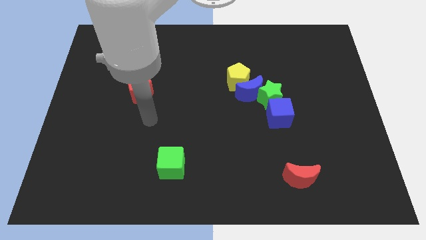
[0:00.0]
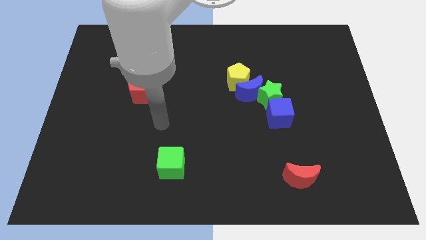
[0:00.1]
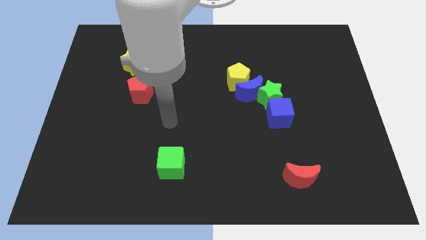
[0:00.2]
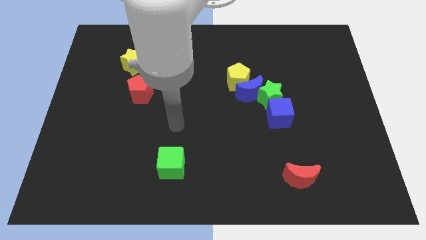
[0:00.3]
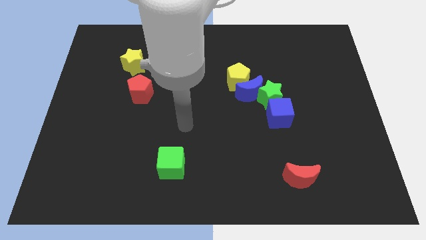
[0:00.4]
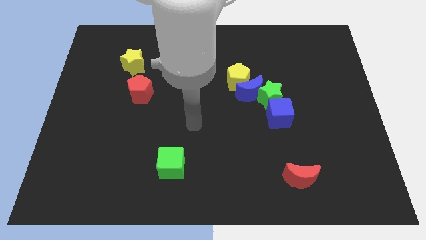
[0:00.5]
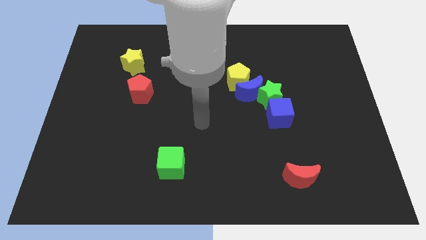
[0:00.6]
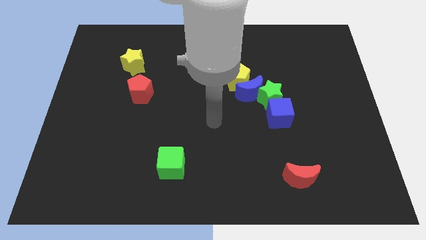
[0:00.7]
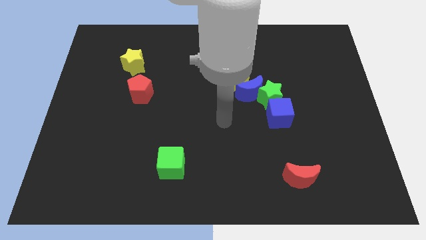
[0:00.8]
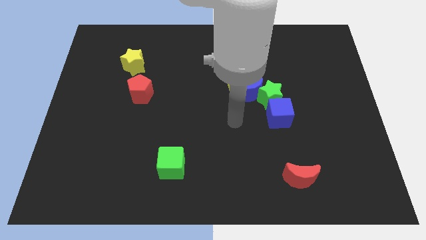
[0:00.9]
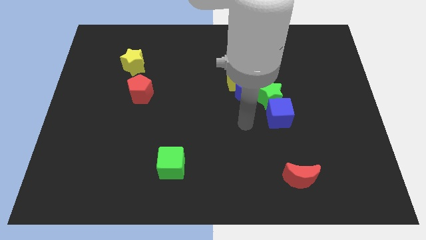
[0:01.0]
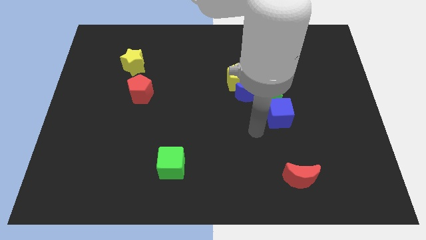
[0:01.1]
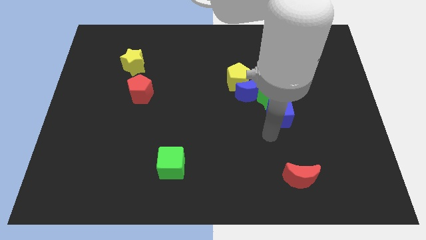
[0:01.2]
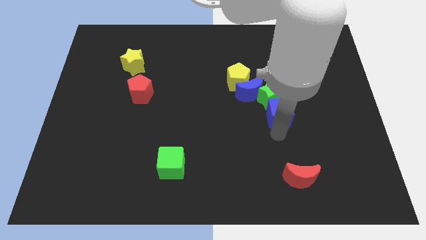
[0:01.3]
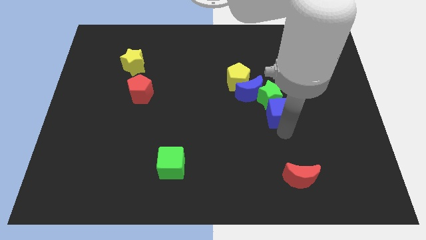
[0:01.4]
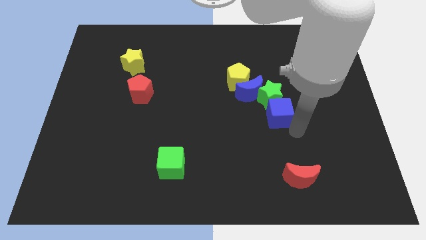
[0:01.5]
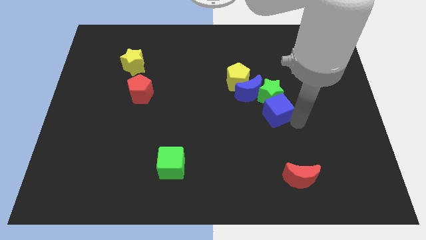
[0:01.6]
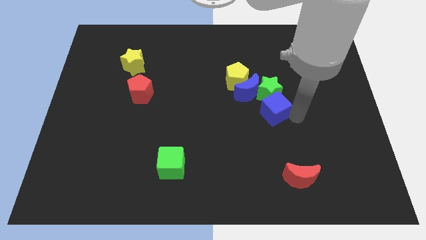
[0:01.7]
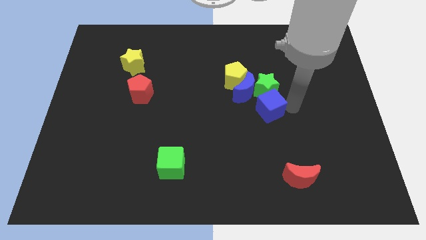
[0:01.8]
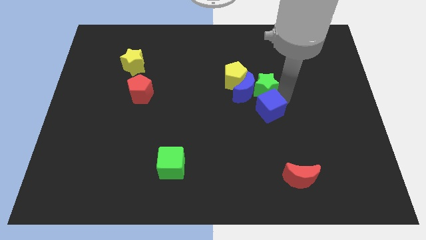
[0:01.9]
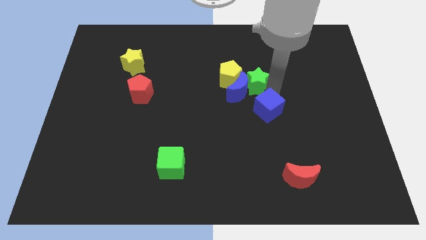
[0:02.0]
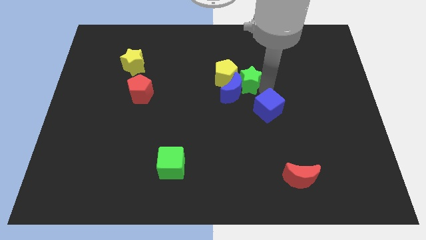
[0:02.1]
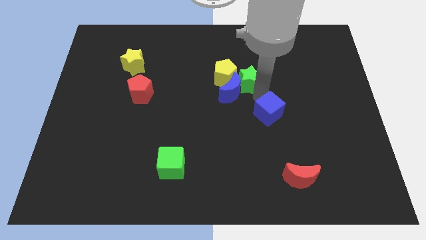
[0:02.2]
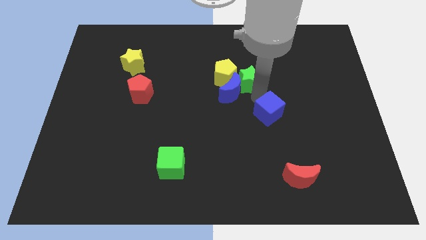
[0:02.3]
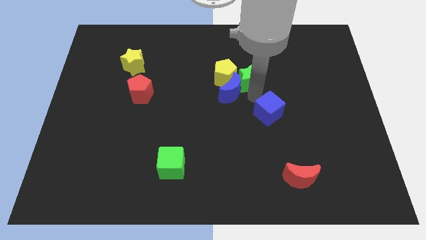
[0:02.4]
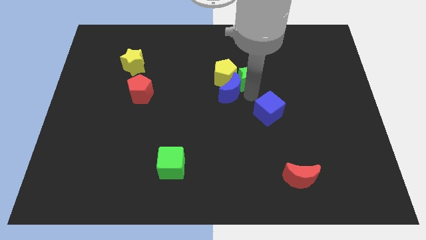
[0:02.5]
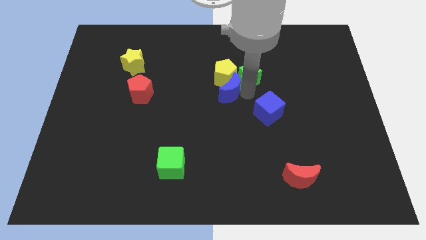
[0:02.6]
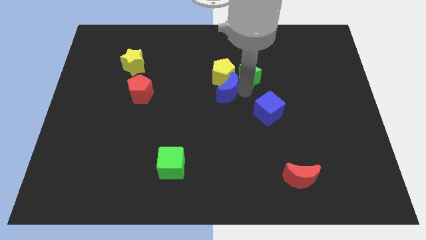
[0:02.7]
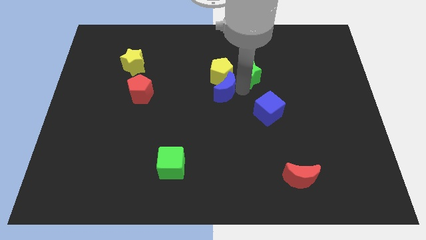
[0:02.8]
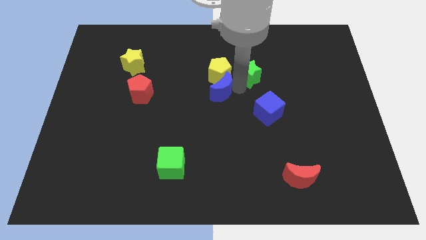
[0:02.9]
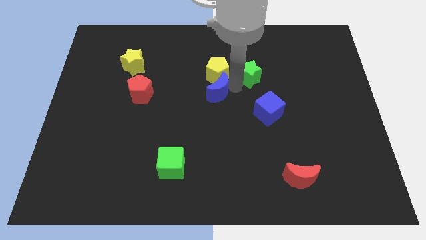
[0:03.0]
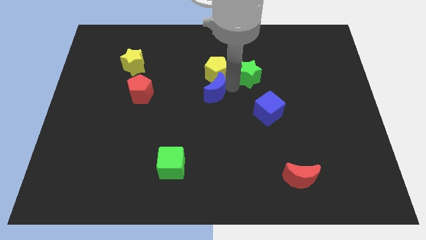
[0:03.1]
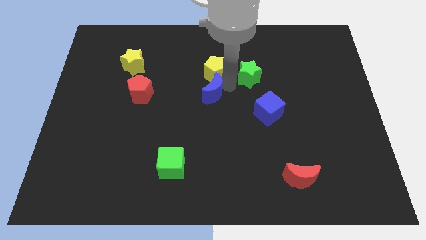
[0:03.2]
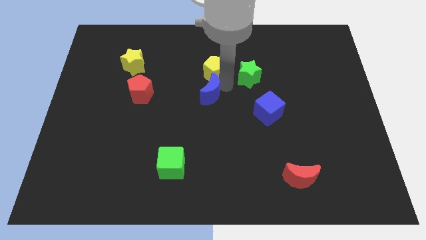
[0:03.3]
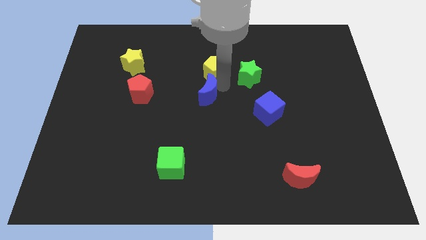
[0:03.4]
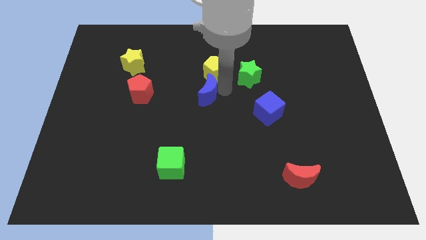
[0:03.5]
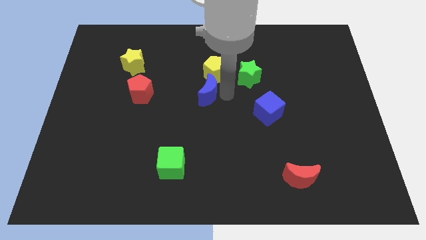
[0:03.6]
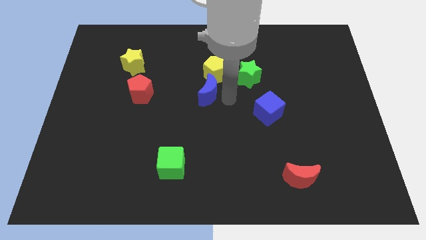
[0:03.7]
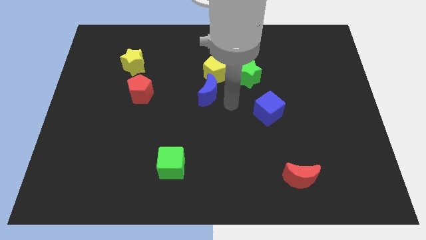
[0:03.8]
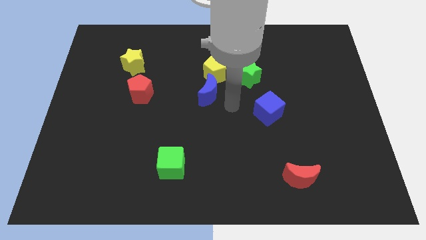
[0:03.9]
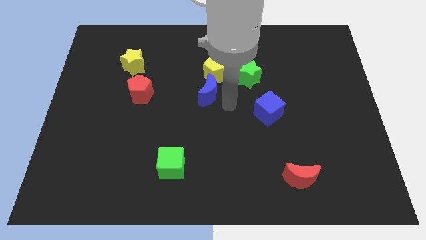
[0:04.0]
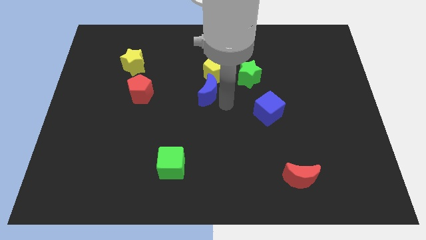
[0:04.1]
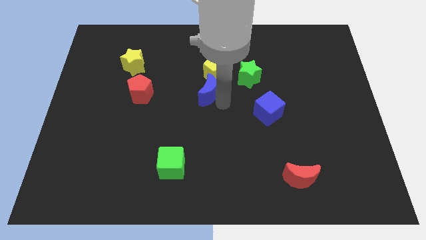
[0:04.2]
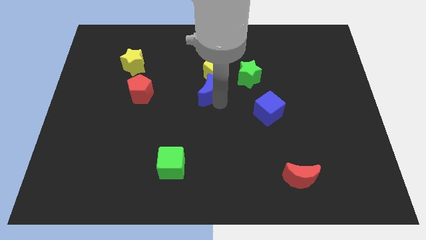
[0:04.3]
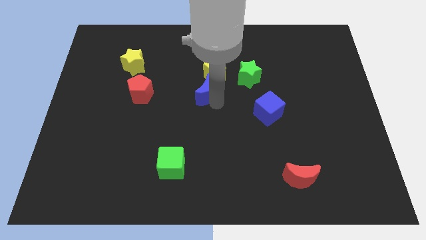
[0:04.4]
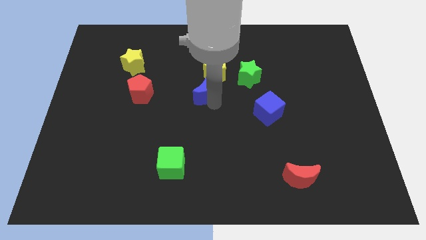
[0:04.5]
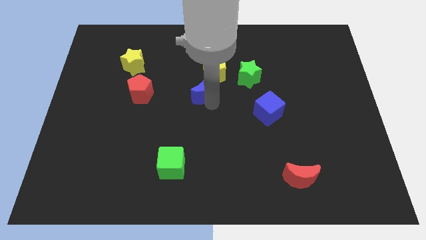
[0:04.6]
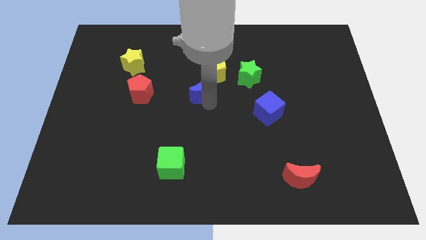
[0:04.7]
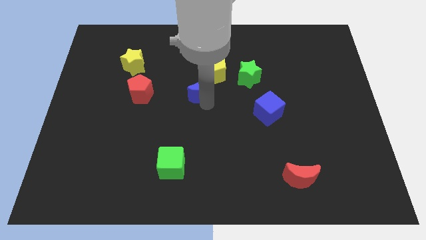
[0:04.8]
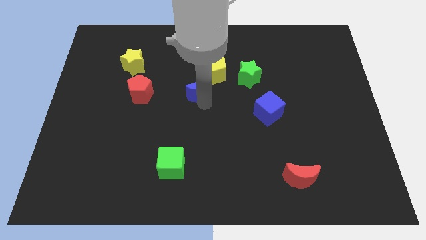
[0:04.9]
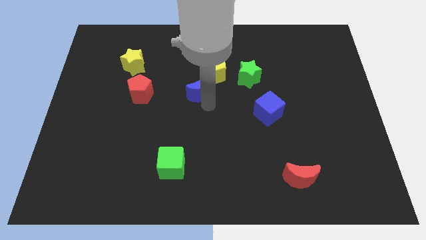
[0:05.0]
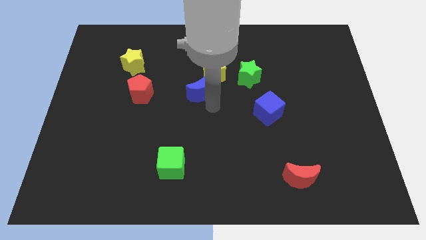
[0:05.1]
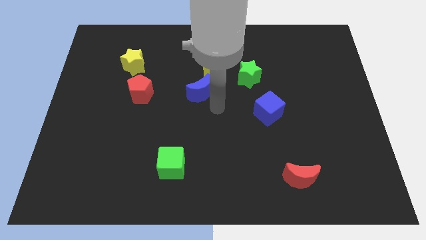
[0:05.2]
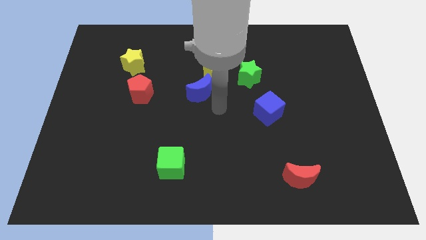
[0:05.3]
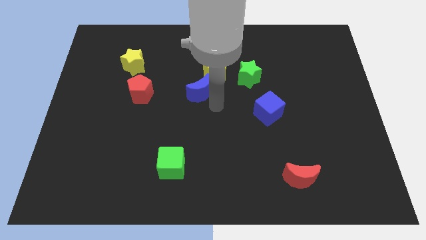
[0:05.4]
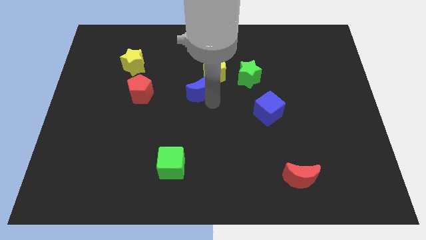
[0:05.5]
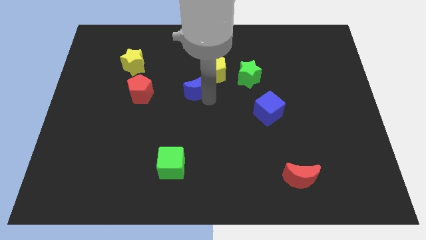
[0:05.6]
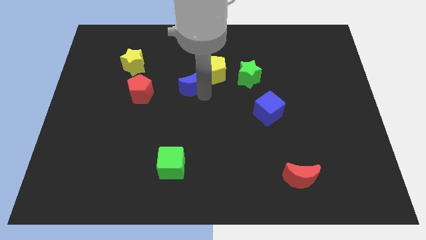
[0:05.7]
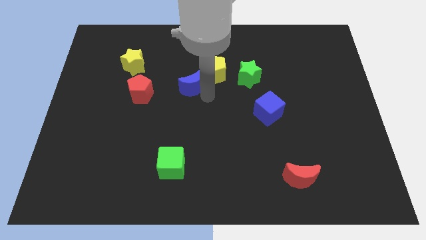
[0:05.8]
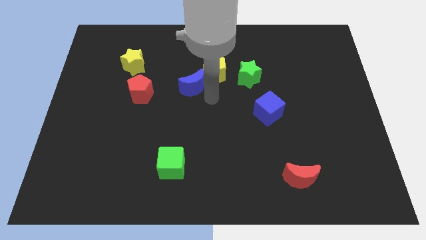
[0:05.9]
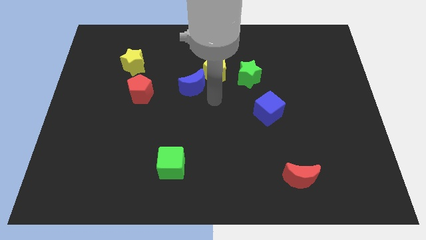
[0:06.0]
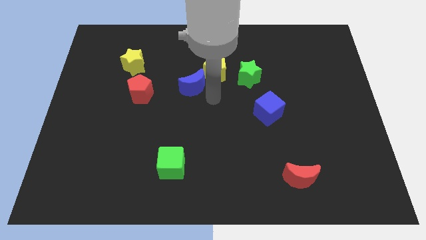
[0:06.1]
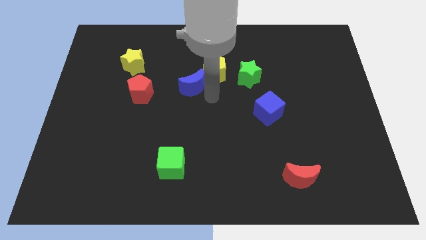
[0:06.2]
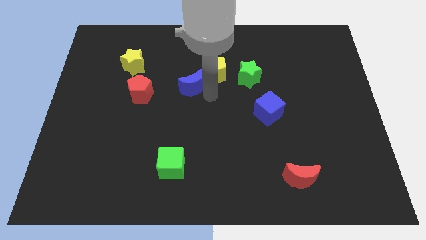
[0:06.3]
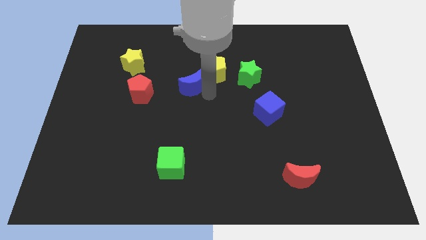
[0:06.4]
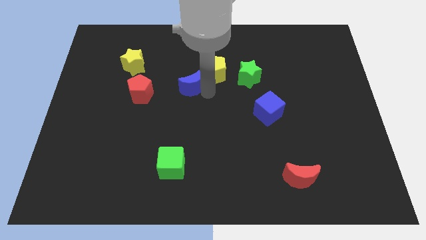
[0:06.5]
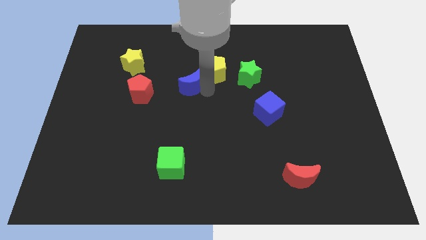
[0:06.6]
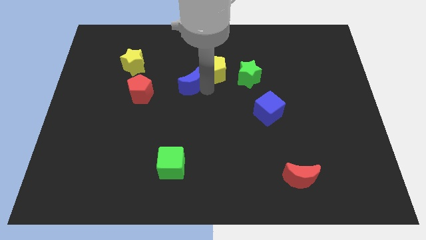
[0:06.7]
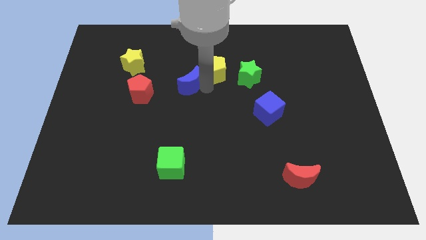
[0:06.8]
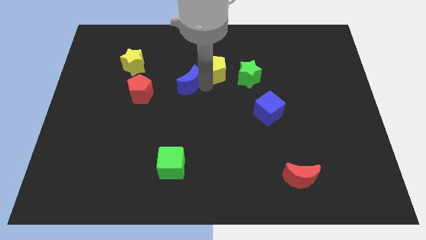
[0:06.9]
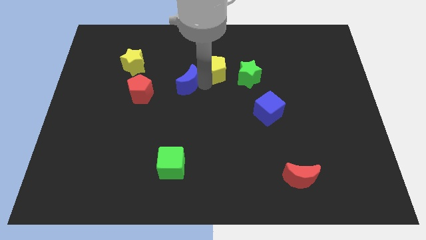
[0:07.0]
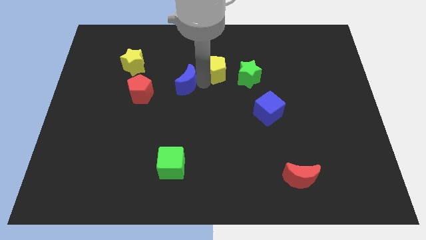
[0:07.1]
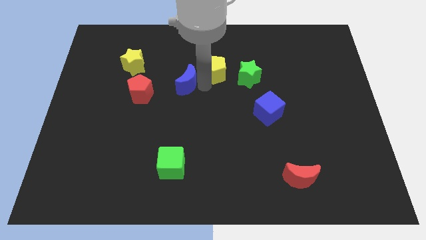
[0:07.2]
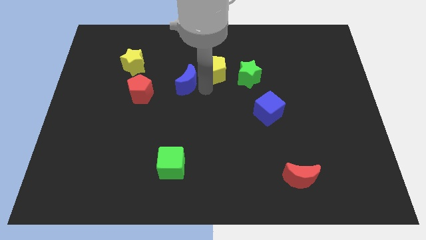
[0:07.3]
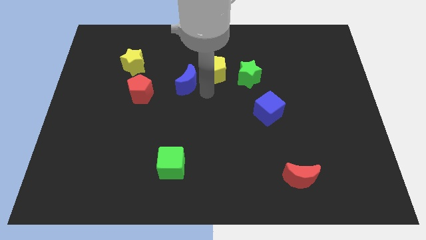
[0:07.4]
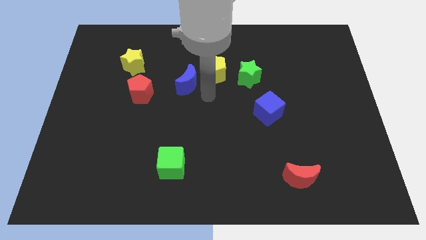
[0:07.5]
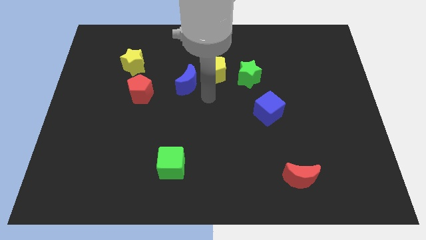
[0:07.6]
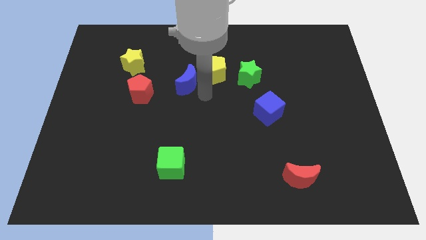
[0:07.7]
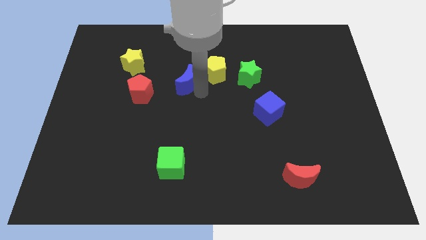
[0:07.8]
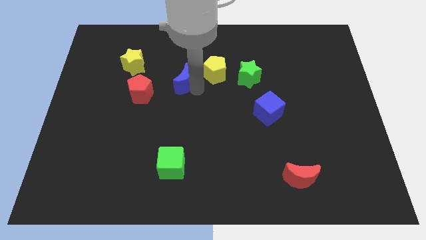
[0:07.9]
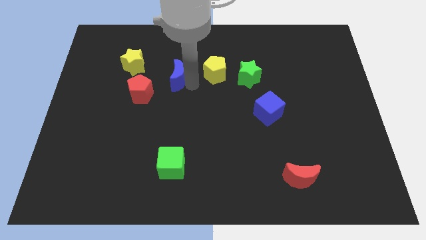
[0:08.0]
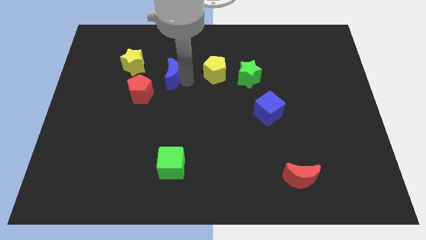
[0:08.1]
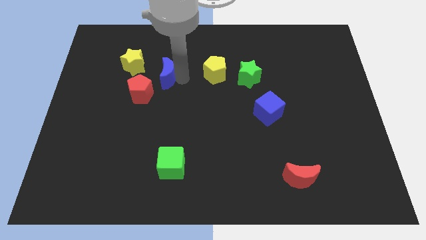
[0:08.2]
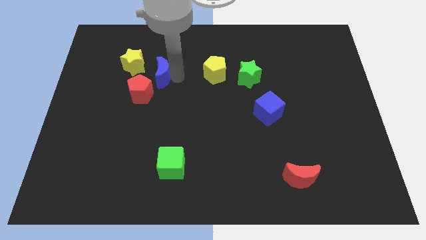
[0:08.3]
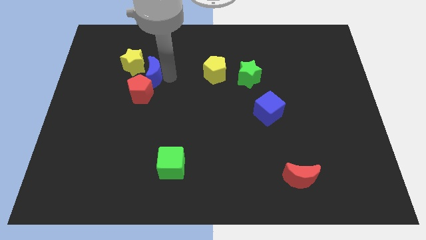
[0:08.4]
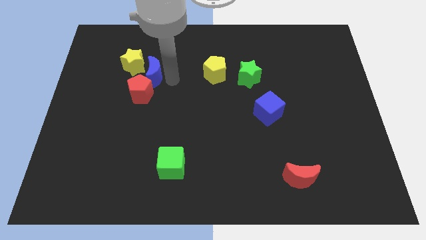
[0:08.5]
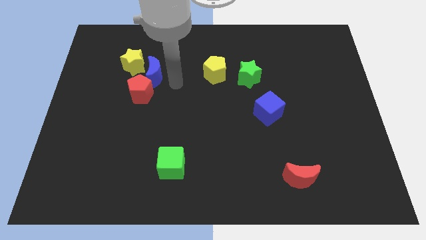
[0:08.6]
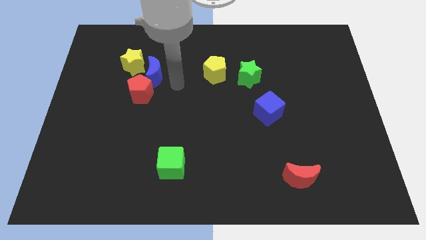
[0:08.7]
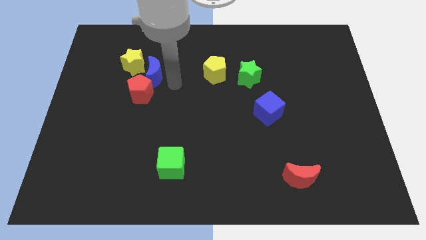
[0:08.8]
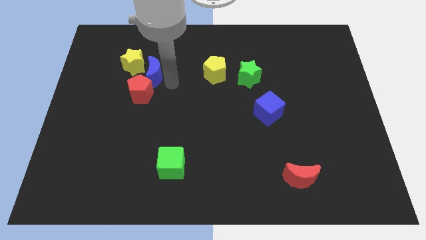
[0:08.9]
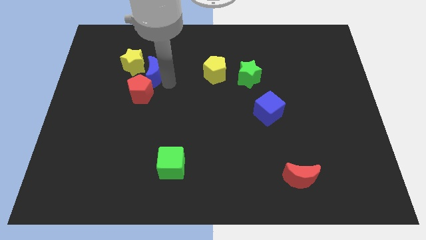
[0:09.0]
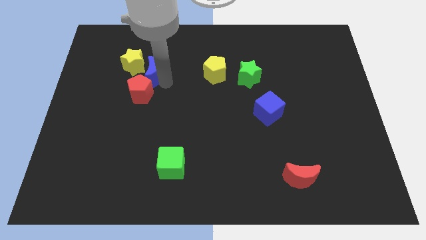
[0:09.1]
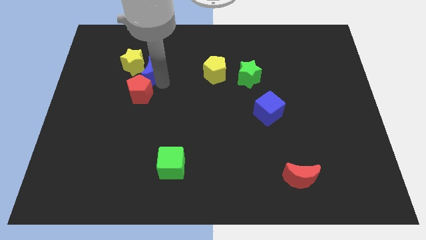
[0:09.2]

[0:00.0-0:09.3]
push the blue moon to the yellow star
